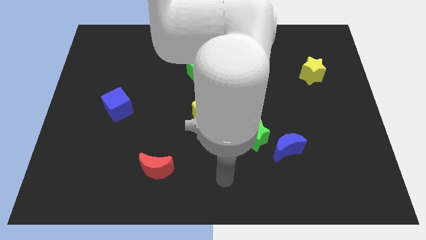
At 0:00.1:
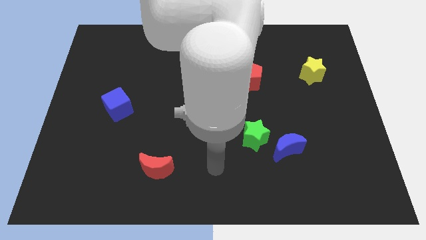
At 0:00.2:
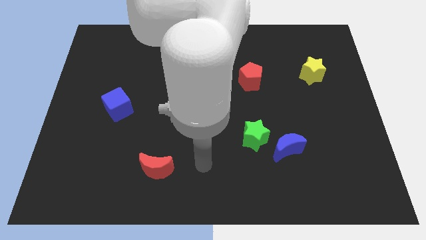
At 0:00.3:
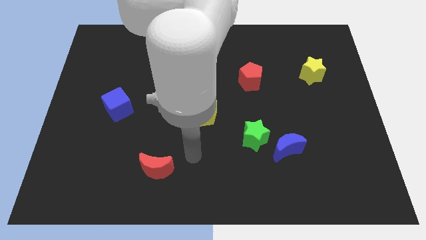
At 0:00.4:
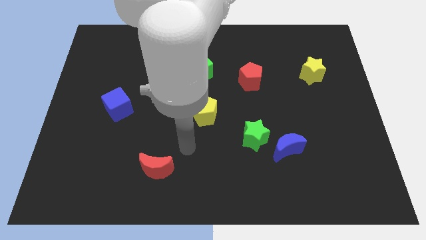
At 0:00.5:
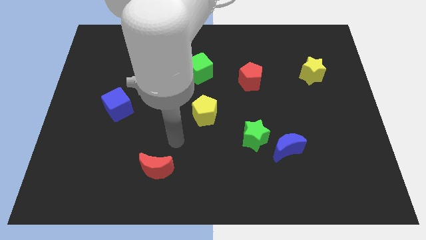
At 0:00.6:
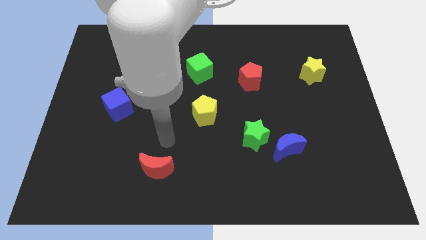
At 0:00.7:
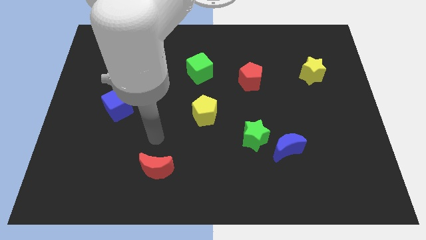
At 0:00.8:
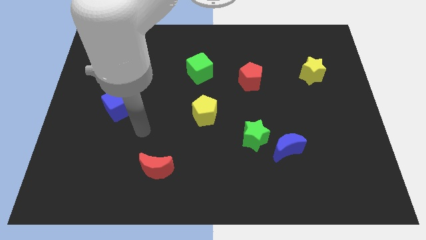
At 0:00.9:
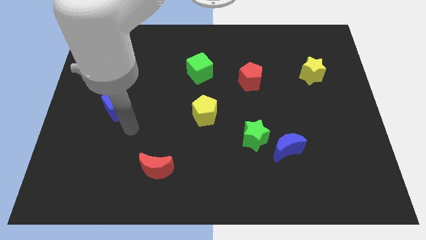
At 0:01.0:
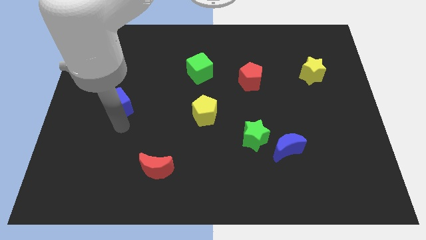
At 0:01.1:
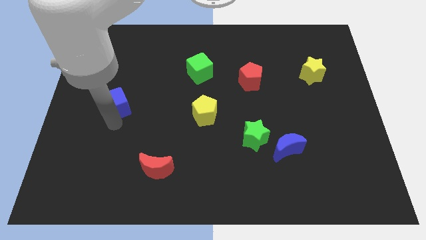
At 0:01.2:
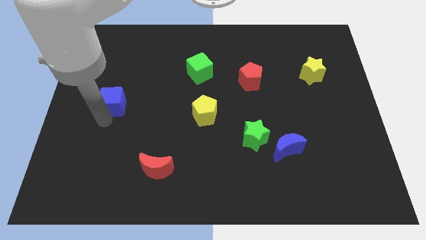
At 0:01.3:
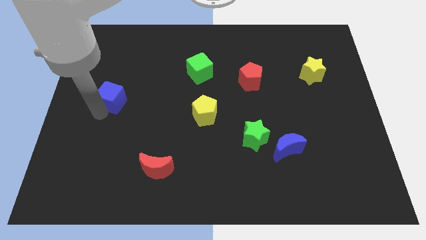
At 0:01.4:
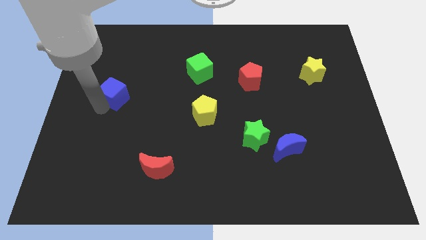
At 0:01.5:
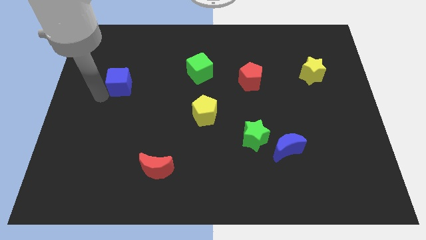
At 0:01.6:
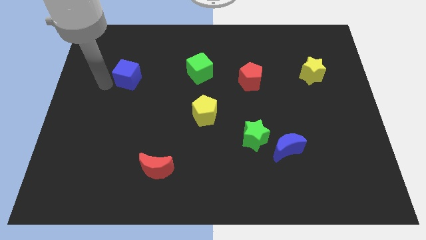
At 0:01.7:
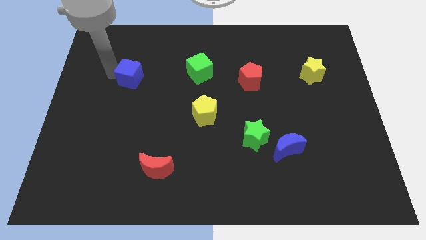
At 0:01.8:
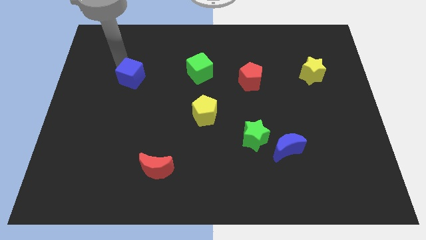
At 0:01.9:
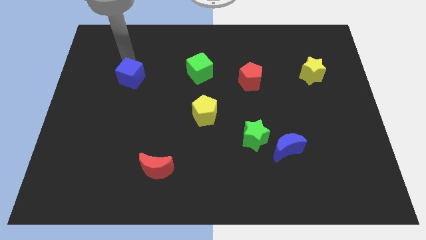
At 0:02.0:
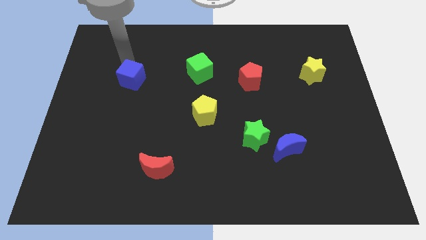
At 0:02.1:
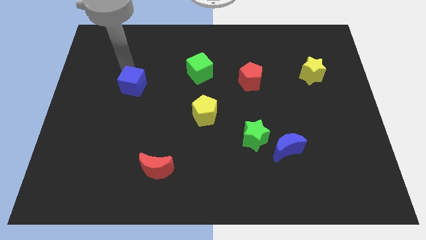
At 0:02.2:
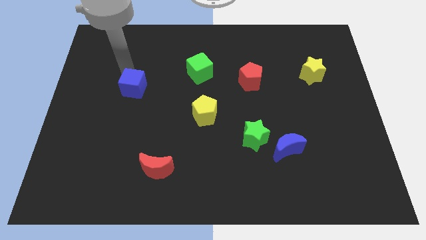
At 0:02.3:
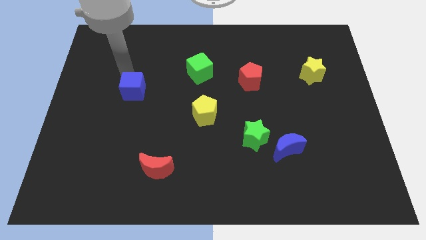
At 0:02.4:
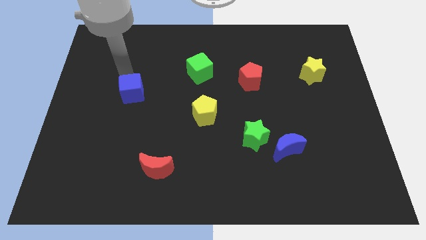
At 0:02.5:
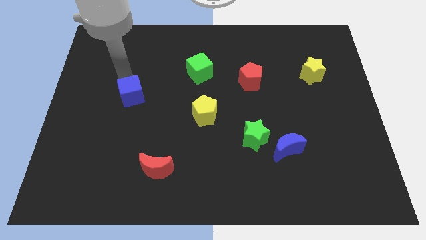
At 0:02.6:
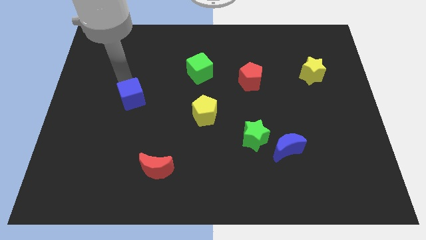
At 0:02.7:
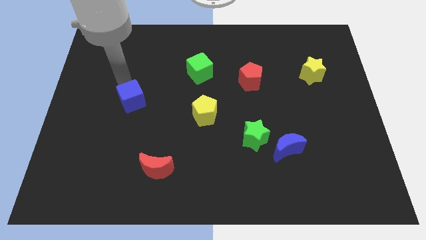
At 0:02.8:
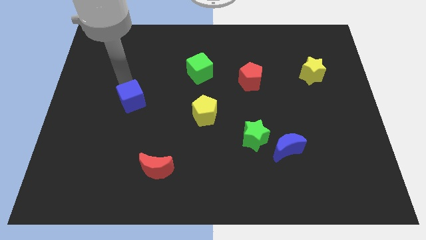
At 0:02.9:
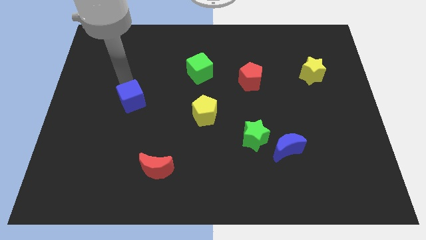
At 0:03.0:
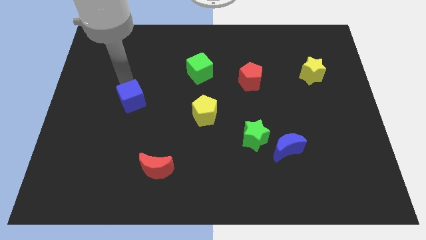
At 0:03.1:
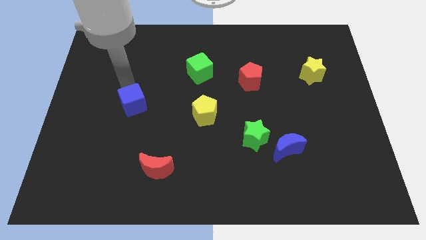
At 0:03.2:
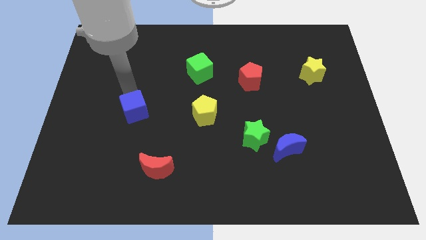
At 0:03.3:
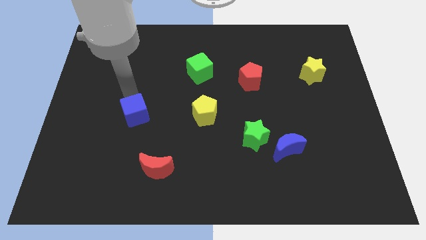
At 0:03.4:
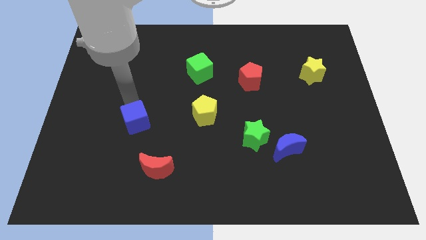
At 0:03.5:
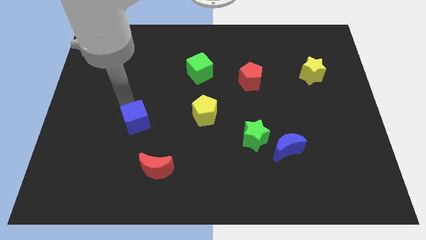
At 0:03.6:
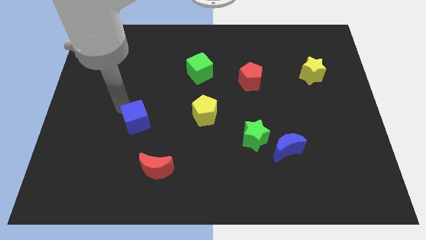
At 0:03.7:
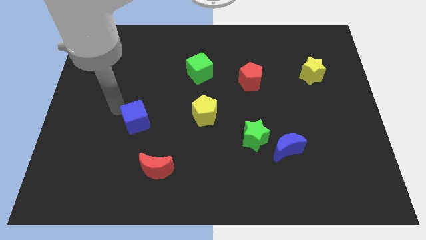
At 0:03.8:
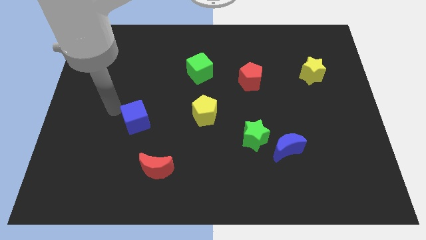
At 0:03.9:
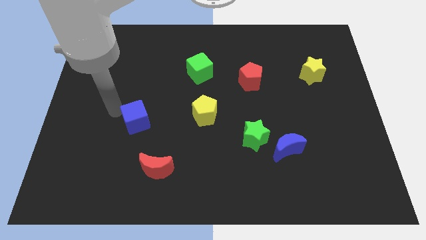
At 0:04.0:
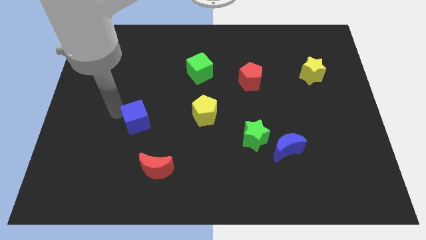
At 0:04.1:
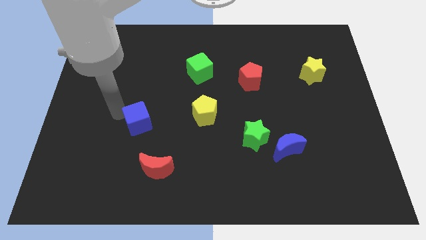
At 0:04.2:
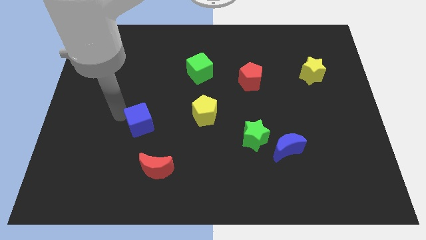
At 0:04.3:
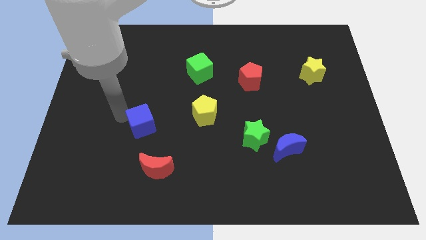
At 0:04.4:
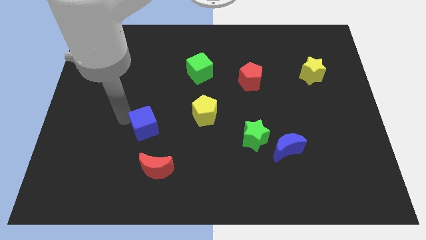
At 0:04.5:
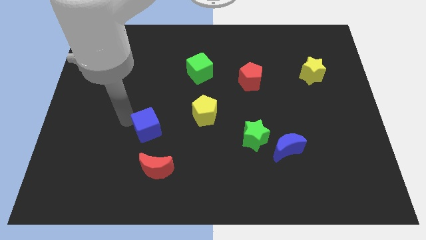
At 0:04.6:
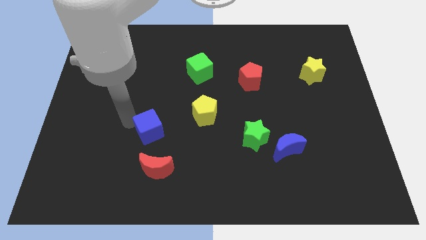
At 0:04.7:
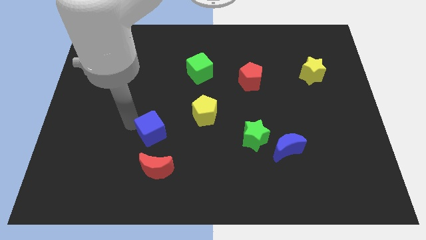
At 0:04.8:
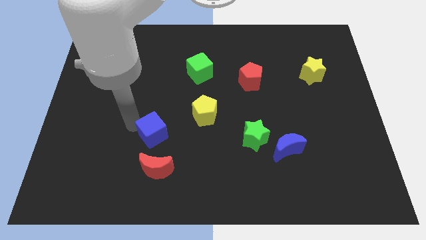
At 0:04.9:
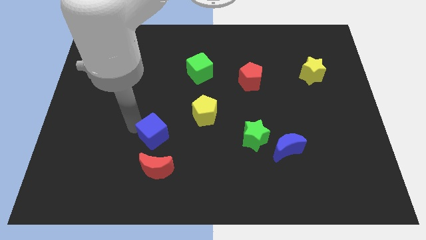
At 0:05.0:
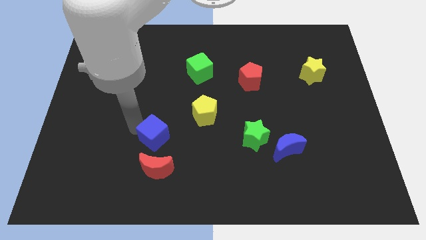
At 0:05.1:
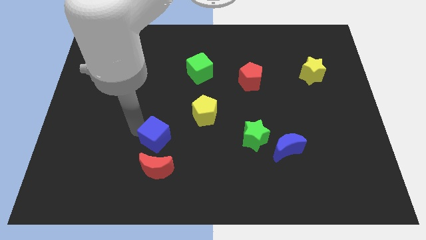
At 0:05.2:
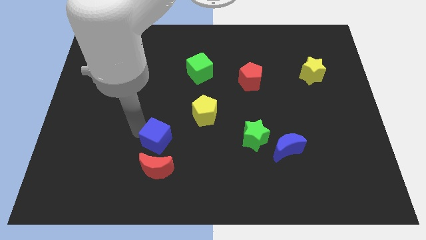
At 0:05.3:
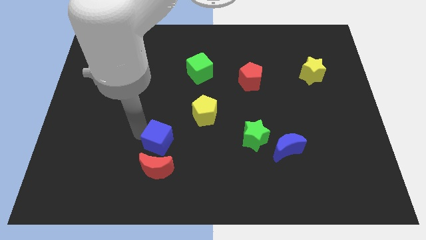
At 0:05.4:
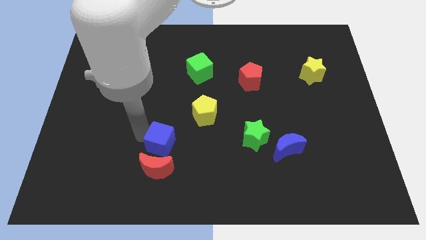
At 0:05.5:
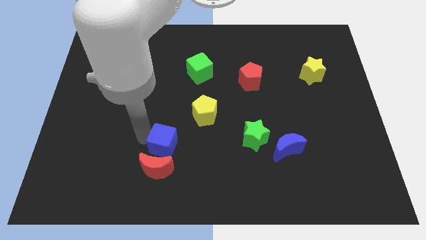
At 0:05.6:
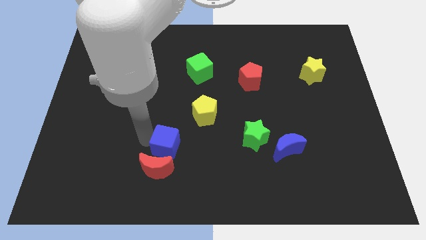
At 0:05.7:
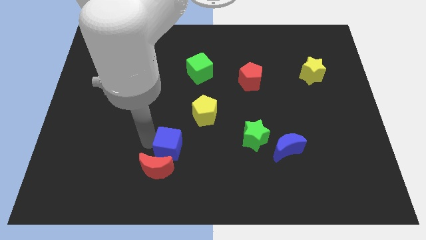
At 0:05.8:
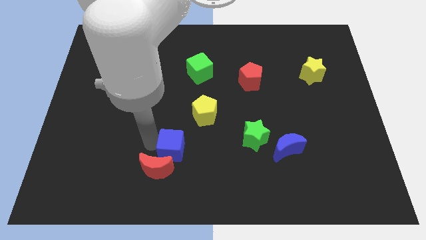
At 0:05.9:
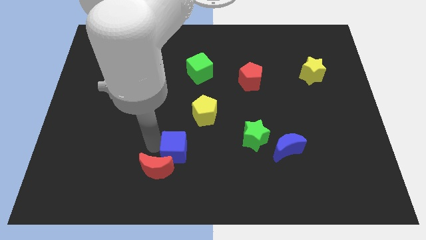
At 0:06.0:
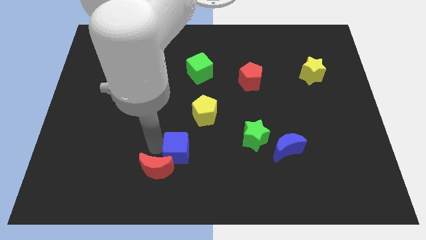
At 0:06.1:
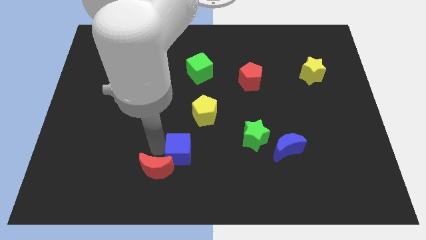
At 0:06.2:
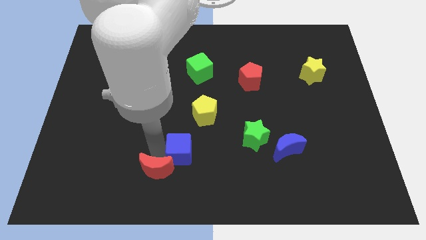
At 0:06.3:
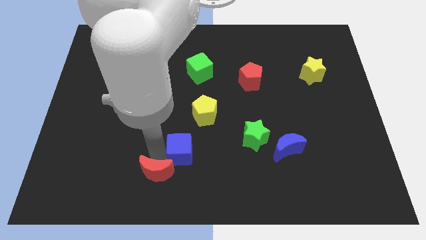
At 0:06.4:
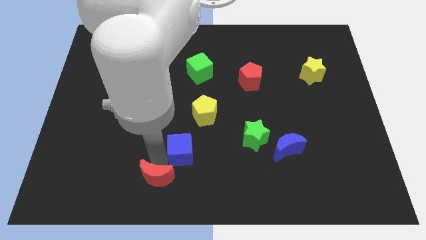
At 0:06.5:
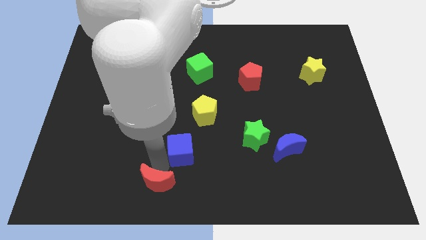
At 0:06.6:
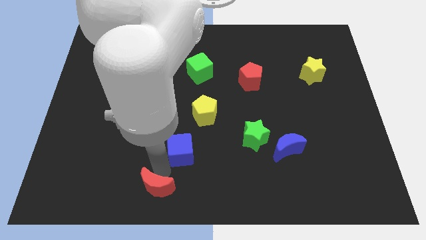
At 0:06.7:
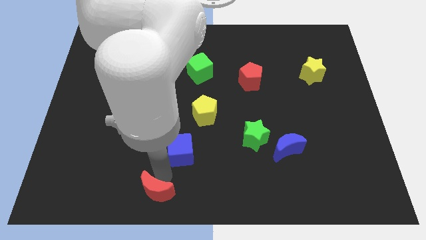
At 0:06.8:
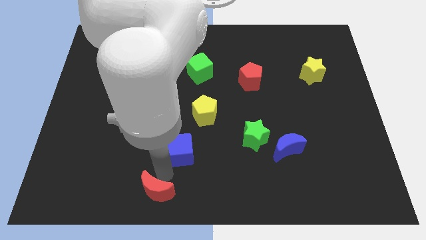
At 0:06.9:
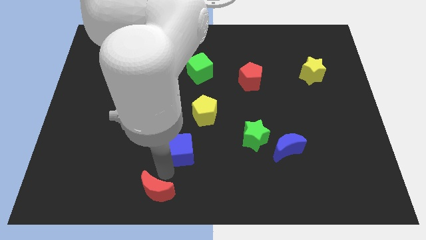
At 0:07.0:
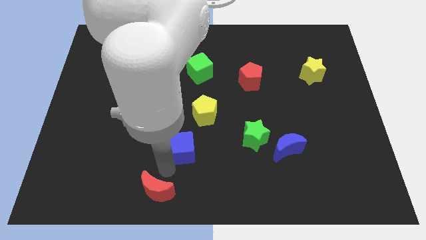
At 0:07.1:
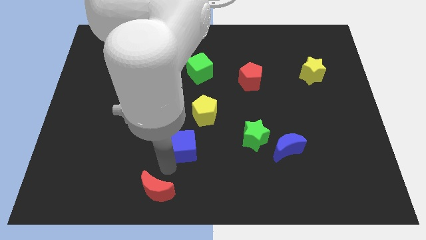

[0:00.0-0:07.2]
slide the blue cube to the left side of the green star
